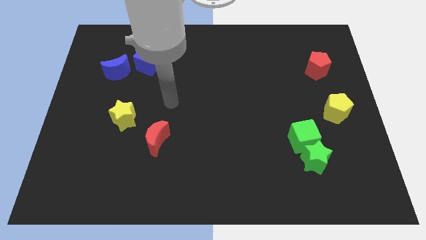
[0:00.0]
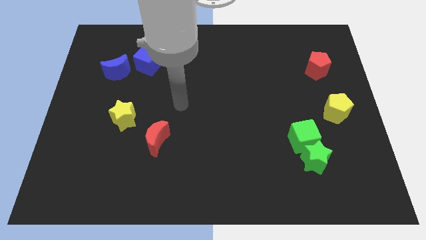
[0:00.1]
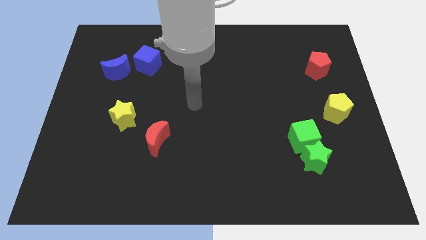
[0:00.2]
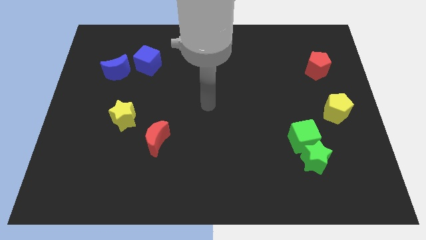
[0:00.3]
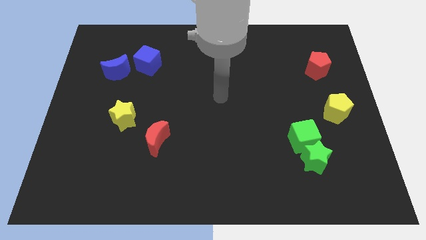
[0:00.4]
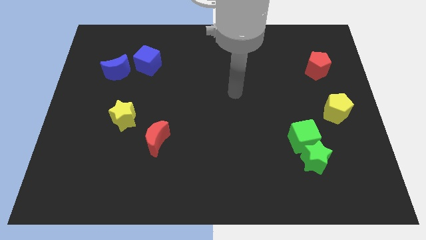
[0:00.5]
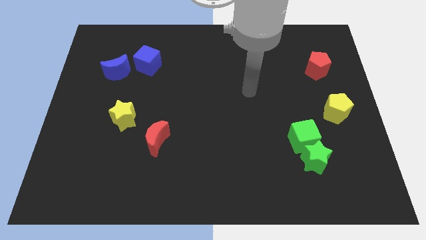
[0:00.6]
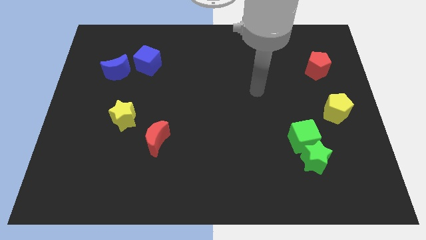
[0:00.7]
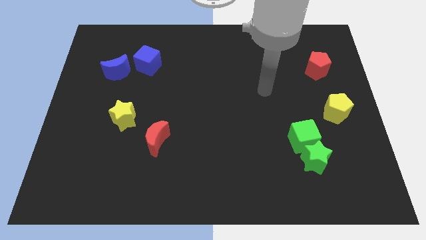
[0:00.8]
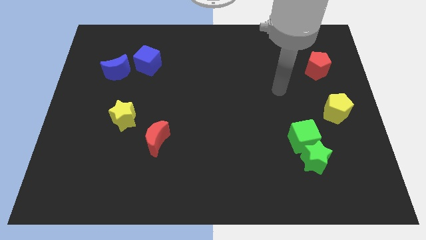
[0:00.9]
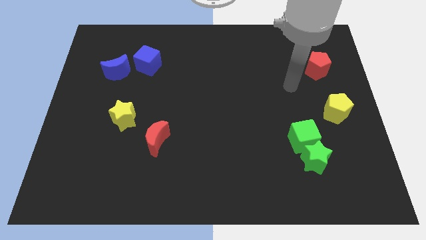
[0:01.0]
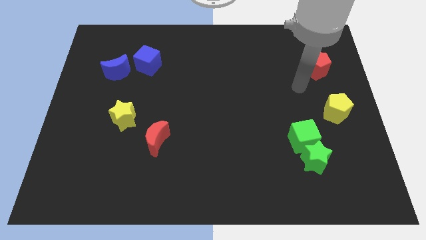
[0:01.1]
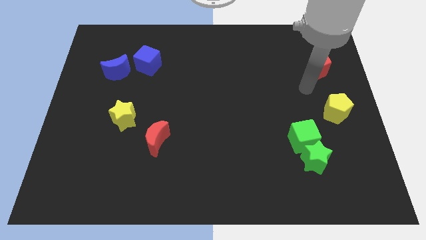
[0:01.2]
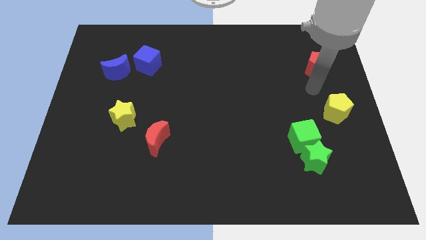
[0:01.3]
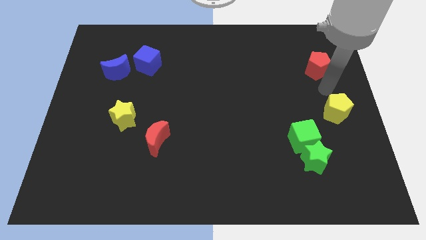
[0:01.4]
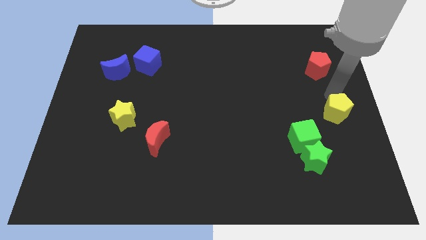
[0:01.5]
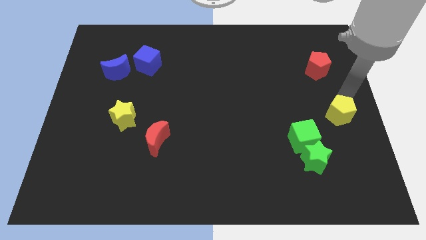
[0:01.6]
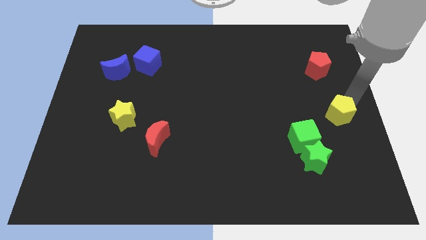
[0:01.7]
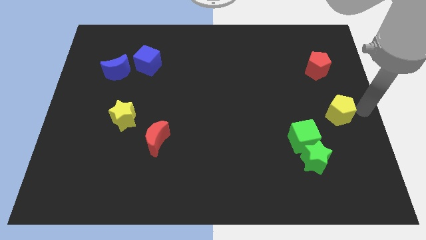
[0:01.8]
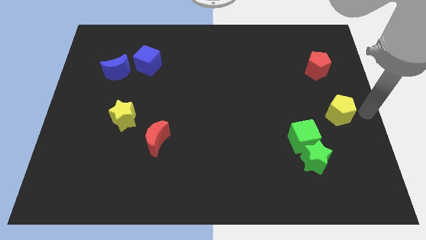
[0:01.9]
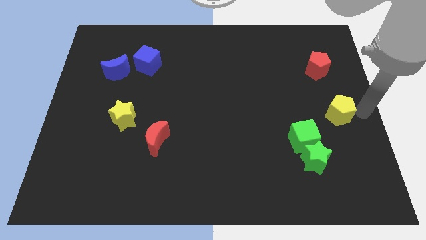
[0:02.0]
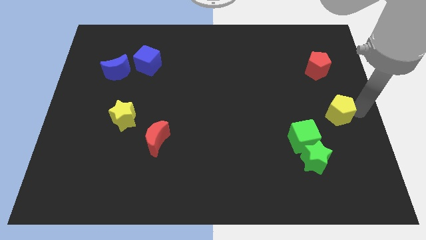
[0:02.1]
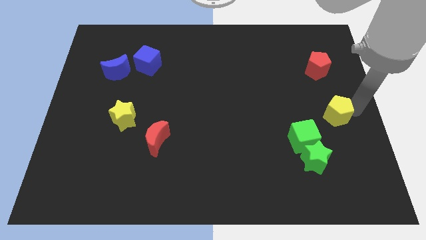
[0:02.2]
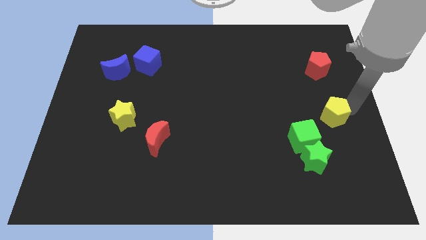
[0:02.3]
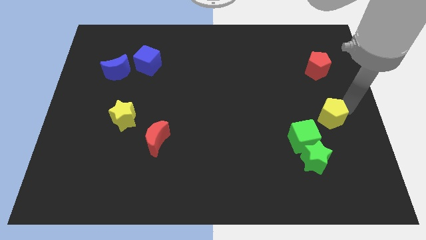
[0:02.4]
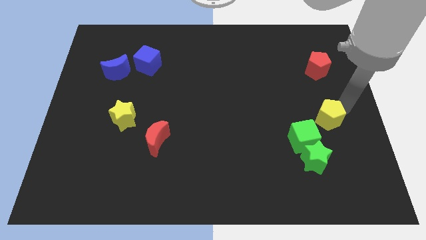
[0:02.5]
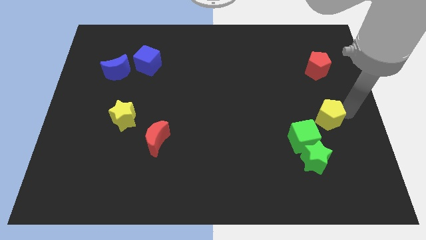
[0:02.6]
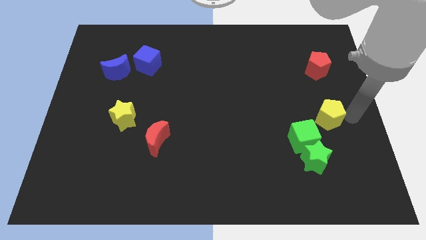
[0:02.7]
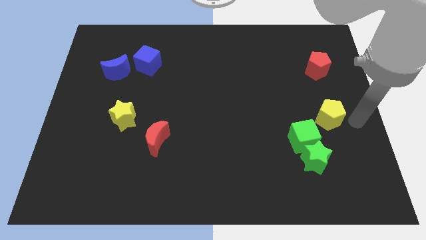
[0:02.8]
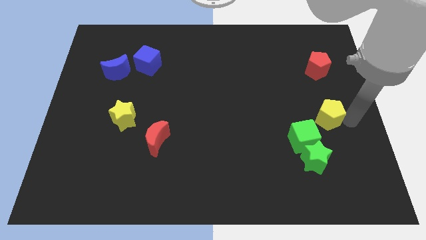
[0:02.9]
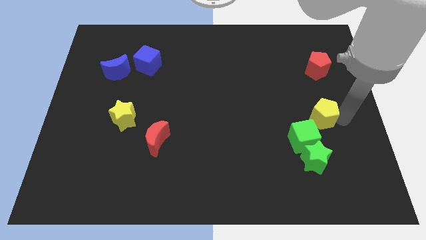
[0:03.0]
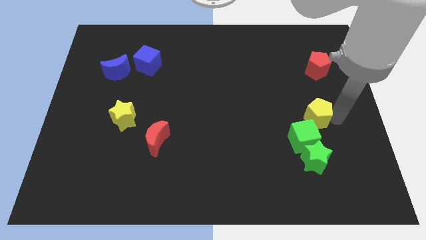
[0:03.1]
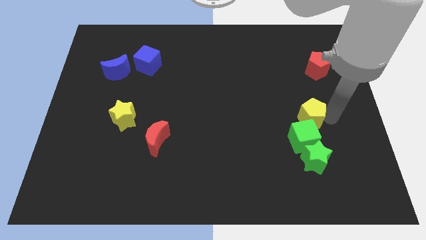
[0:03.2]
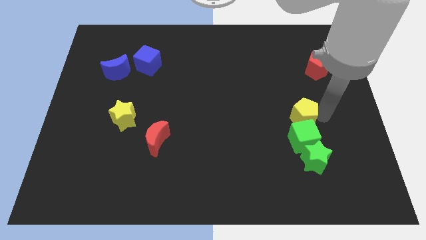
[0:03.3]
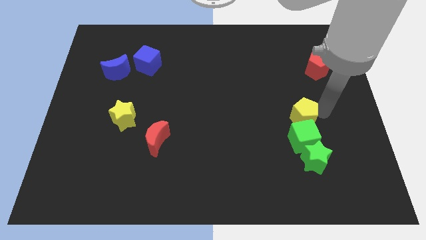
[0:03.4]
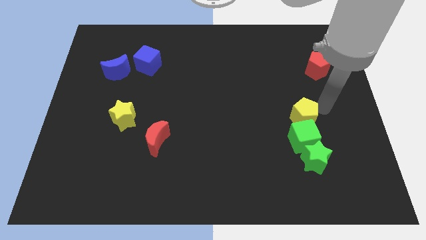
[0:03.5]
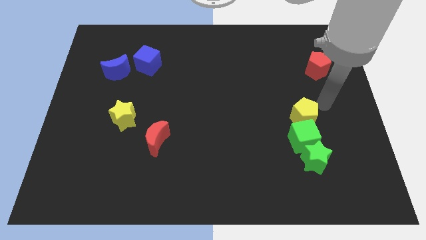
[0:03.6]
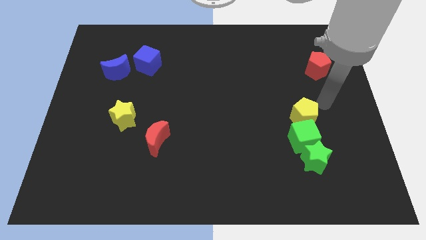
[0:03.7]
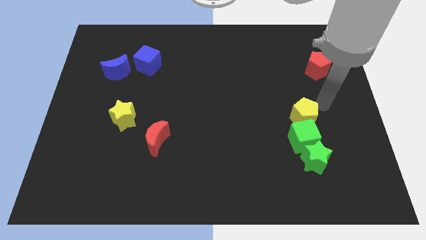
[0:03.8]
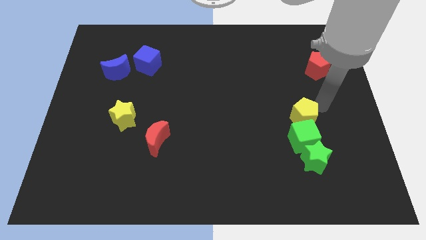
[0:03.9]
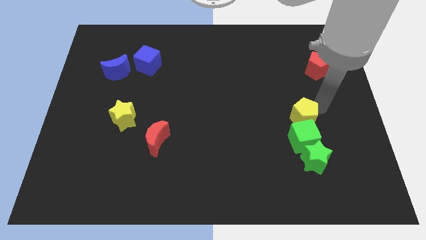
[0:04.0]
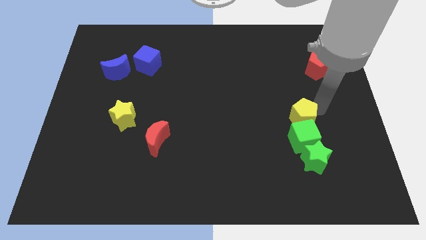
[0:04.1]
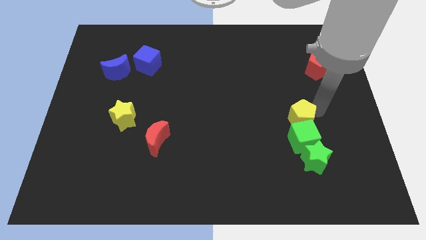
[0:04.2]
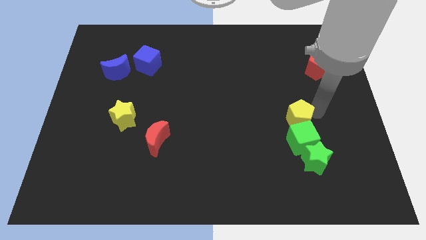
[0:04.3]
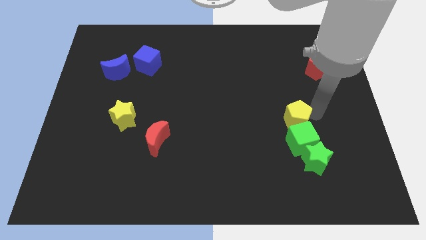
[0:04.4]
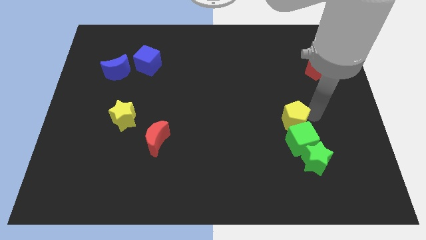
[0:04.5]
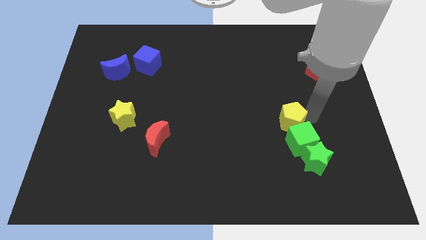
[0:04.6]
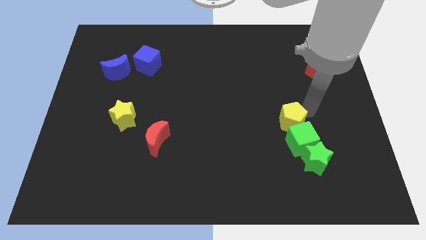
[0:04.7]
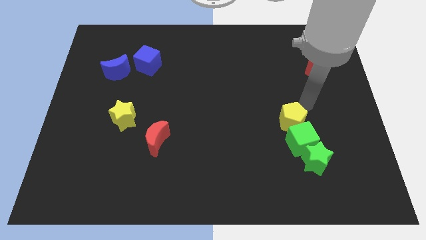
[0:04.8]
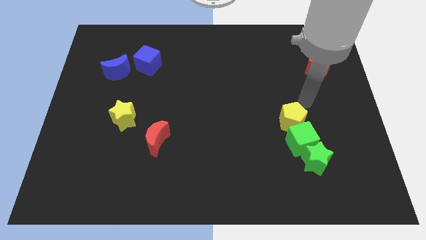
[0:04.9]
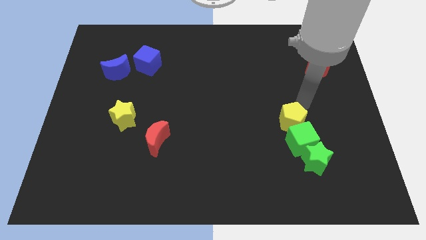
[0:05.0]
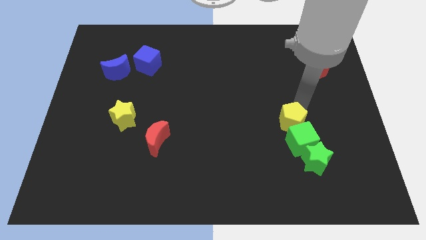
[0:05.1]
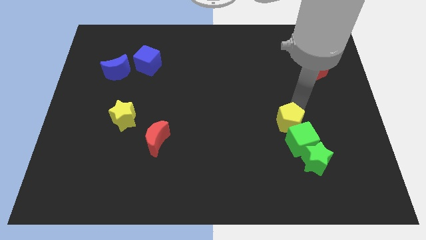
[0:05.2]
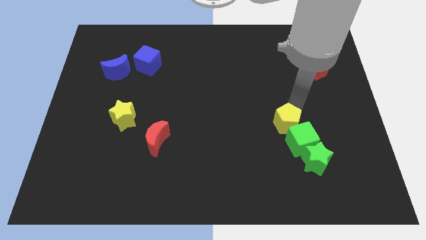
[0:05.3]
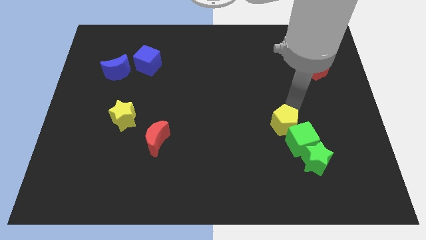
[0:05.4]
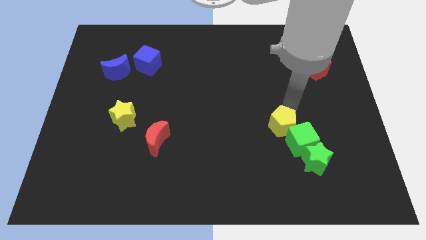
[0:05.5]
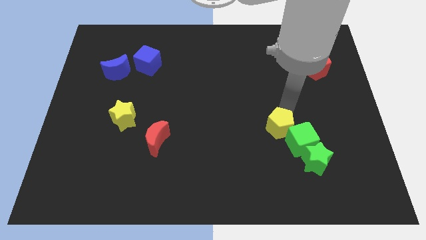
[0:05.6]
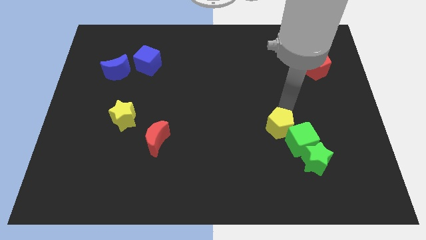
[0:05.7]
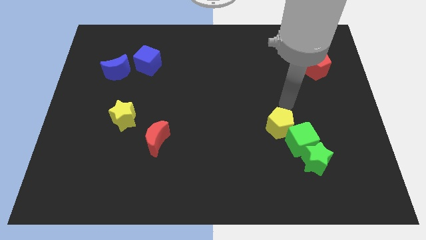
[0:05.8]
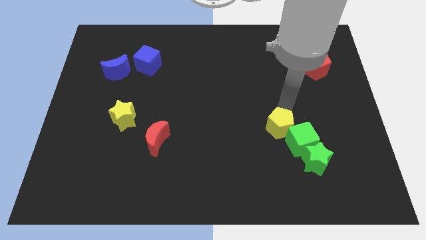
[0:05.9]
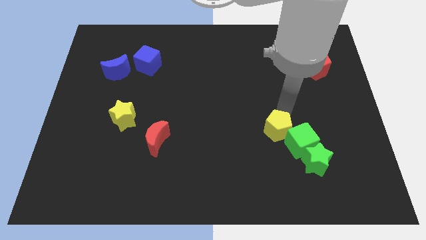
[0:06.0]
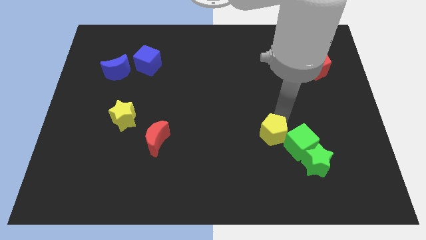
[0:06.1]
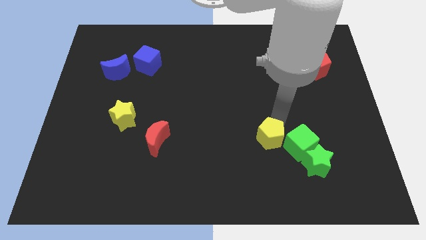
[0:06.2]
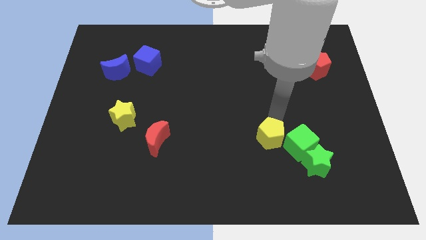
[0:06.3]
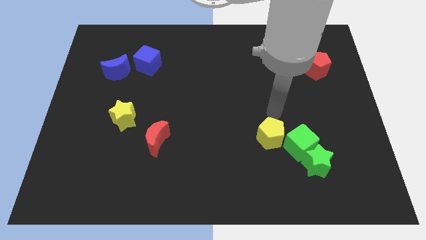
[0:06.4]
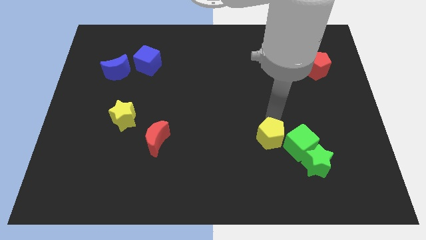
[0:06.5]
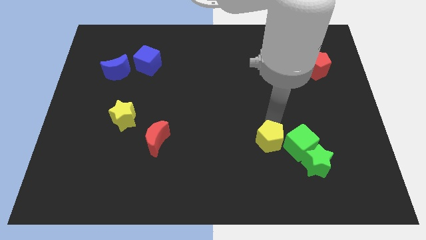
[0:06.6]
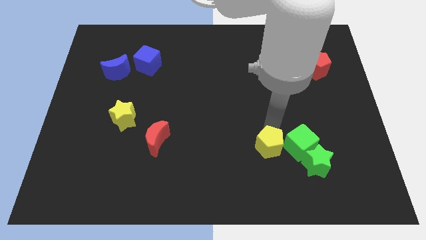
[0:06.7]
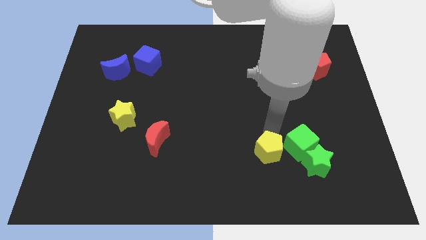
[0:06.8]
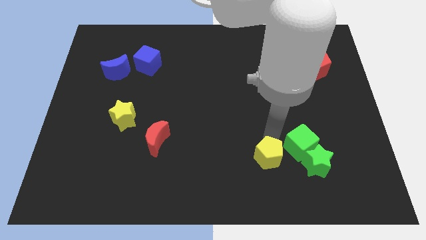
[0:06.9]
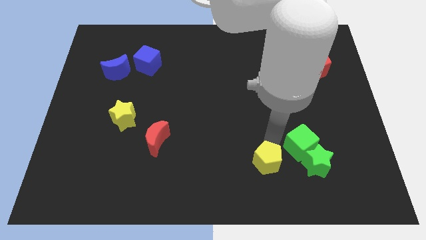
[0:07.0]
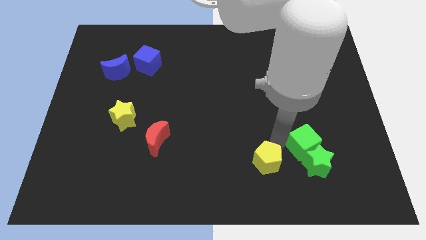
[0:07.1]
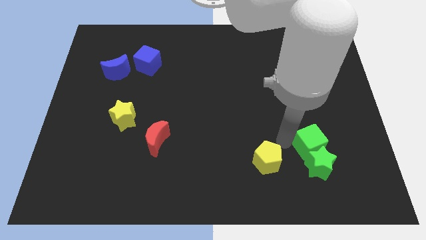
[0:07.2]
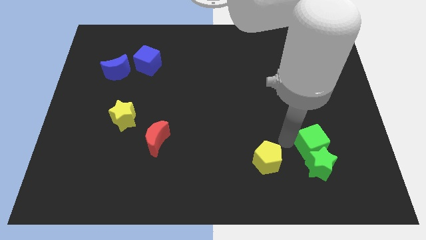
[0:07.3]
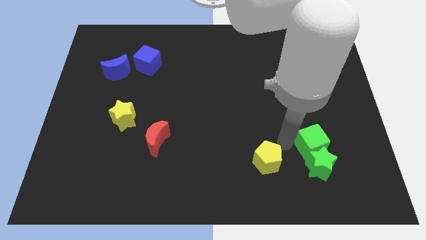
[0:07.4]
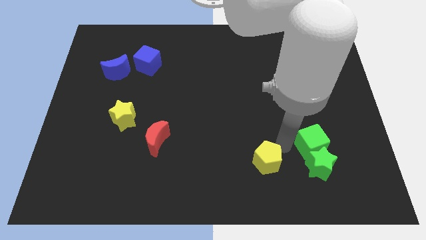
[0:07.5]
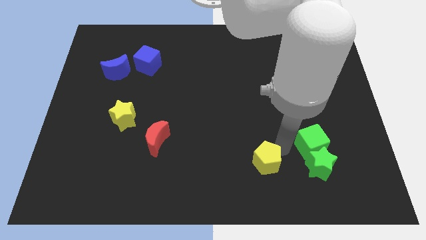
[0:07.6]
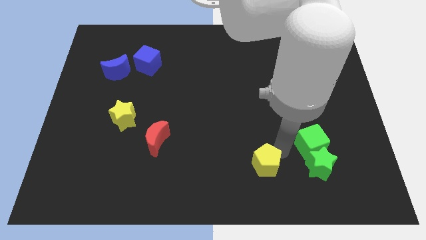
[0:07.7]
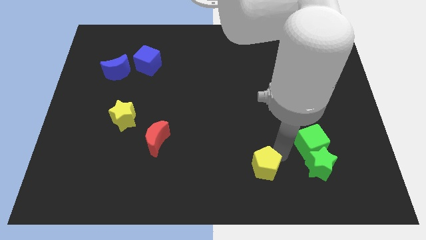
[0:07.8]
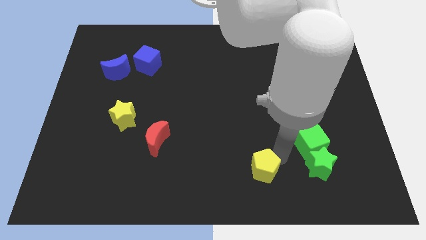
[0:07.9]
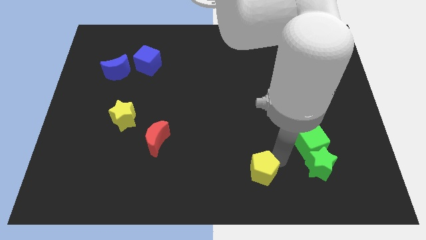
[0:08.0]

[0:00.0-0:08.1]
slide the yellow pentagon to the bottom side
